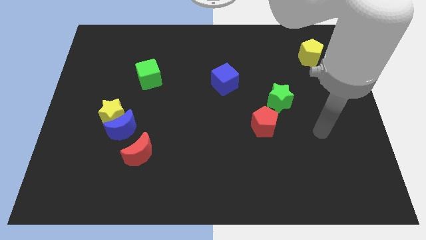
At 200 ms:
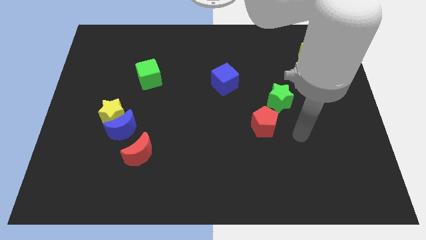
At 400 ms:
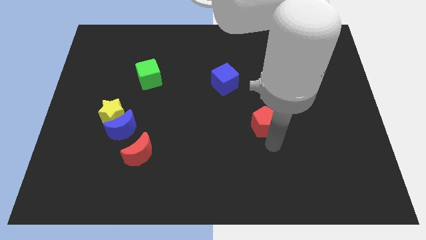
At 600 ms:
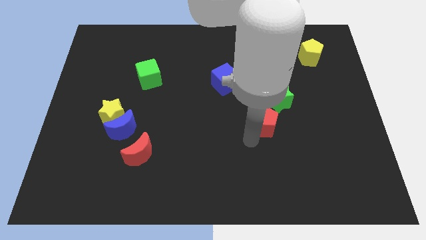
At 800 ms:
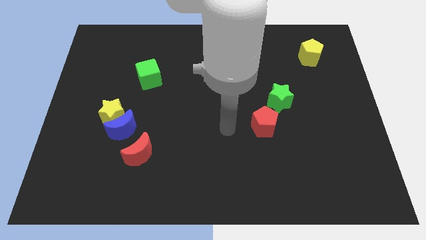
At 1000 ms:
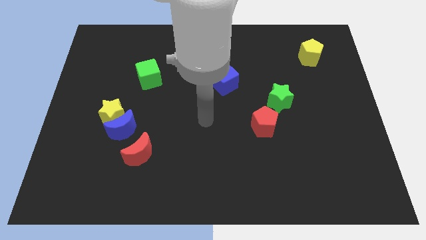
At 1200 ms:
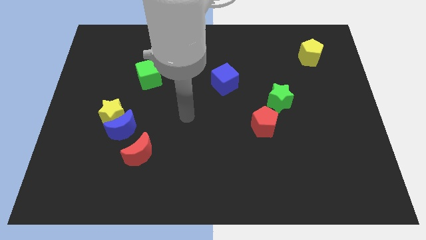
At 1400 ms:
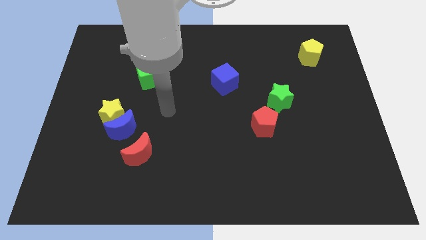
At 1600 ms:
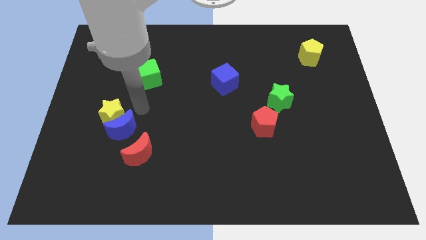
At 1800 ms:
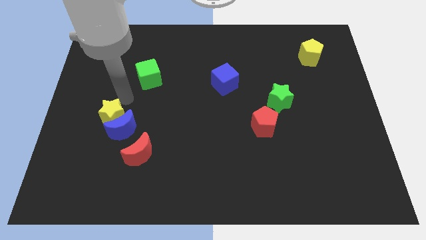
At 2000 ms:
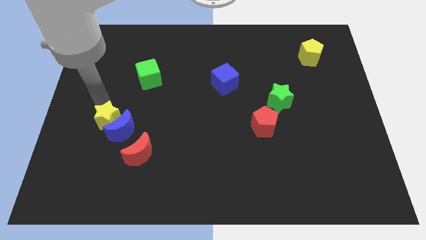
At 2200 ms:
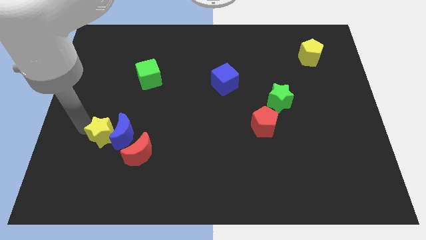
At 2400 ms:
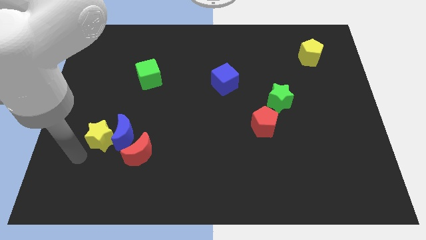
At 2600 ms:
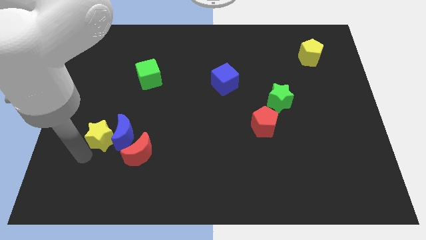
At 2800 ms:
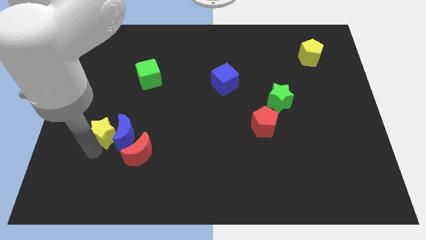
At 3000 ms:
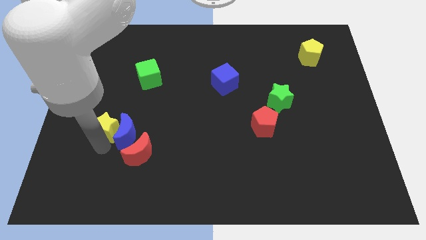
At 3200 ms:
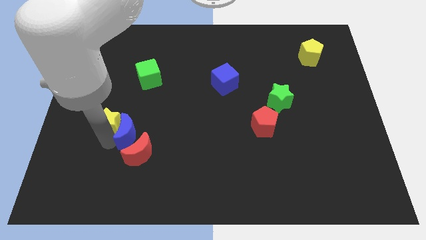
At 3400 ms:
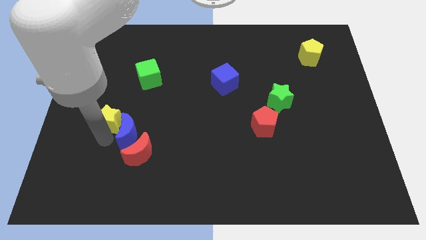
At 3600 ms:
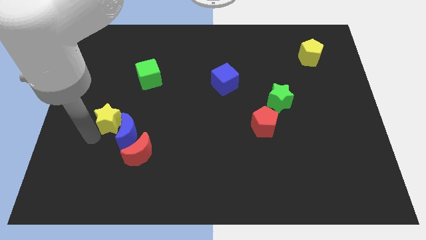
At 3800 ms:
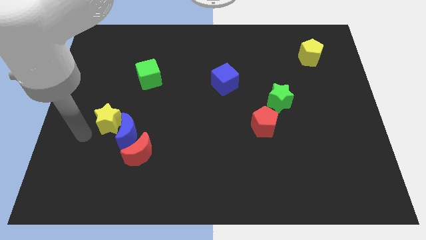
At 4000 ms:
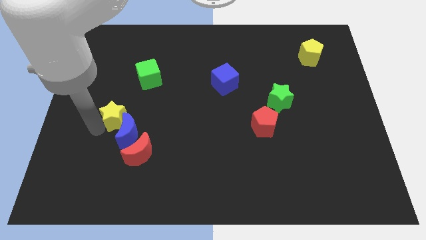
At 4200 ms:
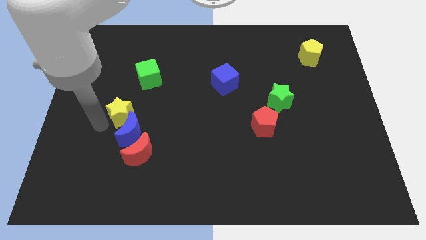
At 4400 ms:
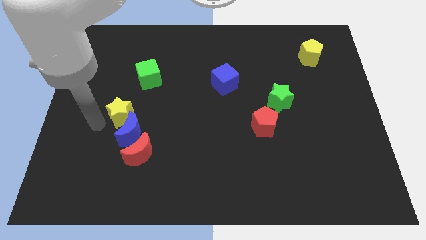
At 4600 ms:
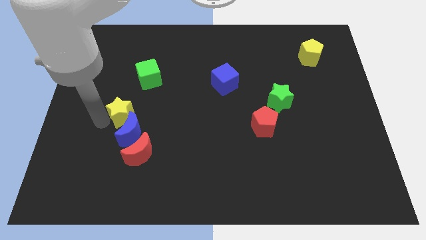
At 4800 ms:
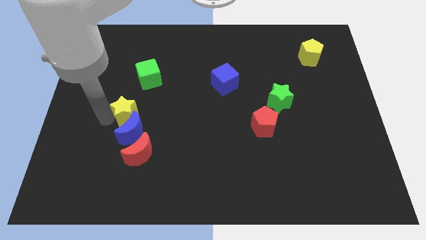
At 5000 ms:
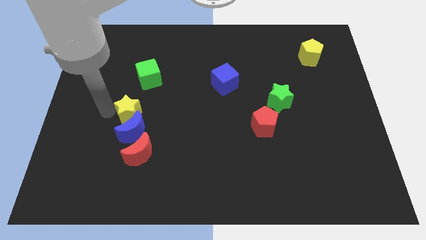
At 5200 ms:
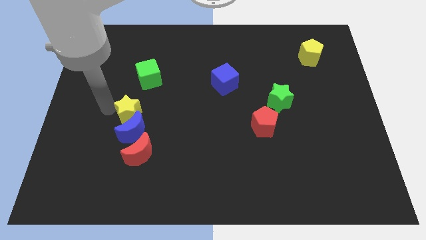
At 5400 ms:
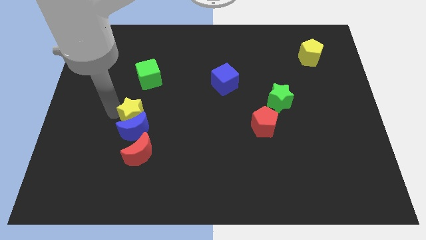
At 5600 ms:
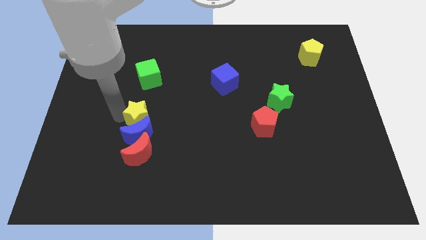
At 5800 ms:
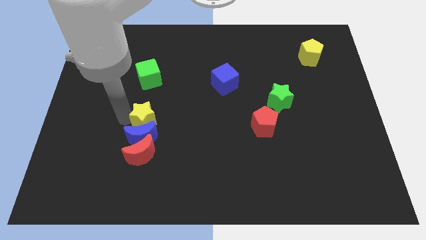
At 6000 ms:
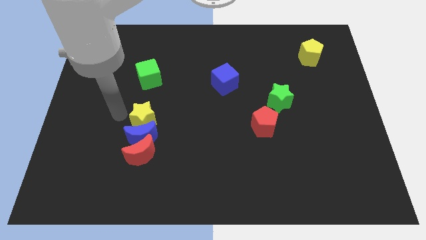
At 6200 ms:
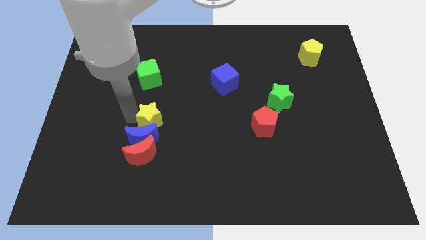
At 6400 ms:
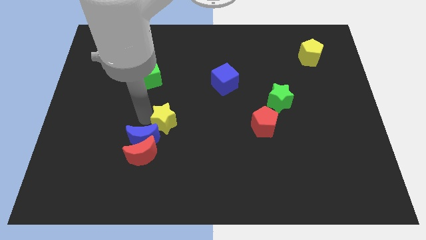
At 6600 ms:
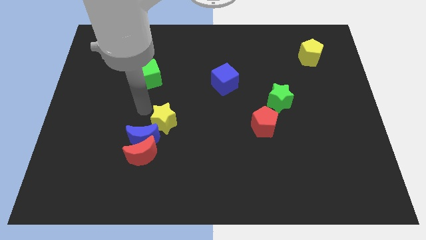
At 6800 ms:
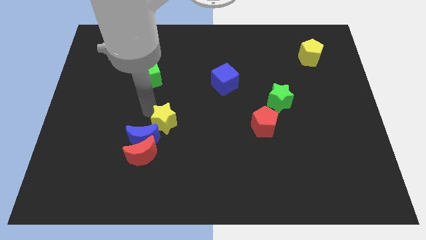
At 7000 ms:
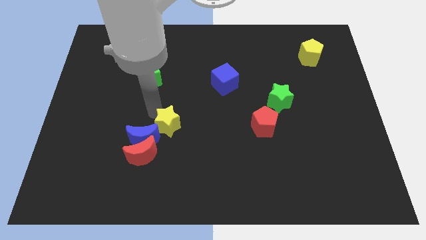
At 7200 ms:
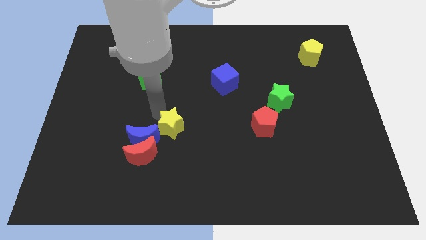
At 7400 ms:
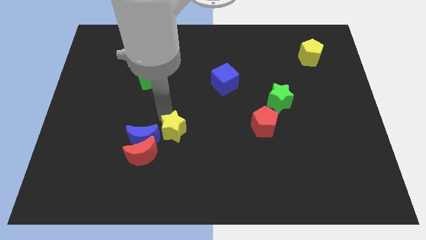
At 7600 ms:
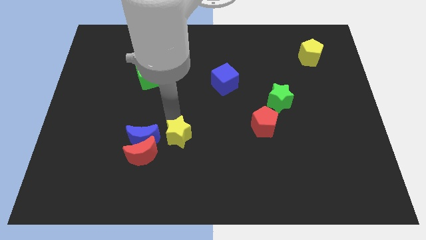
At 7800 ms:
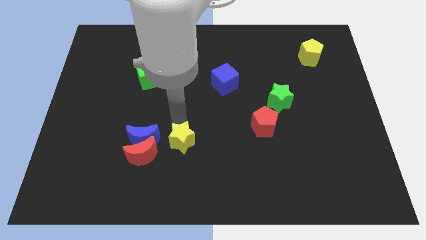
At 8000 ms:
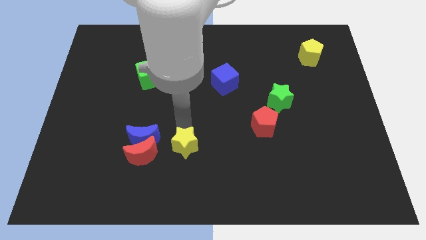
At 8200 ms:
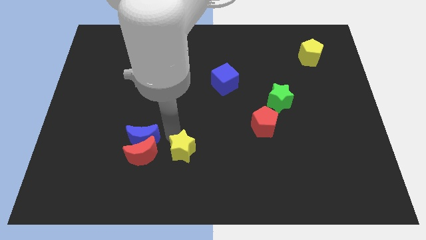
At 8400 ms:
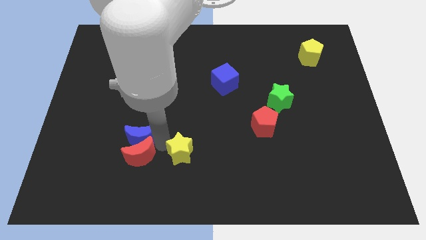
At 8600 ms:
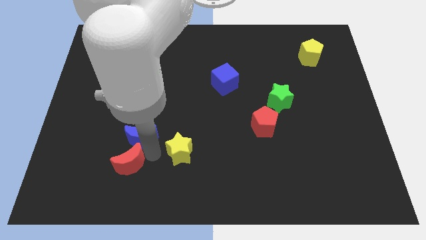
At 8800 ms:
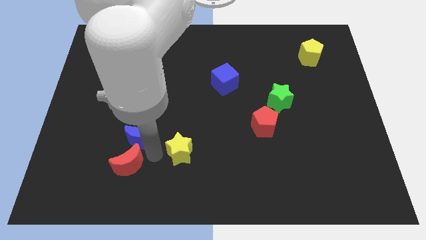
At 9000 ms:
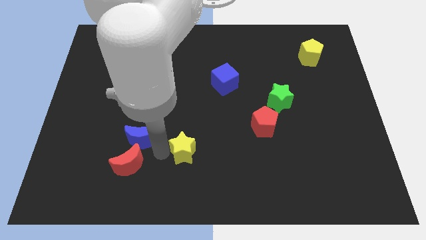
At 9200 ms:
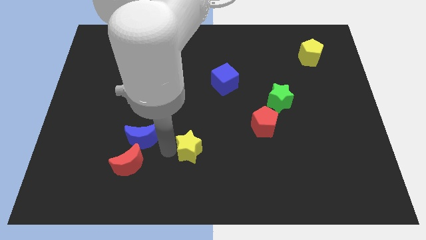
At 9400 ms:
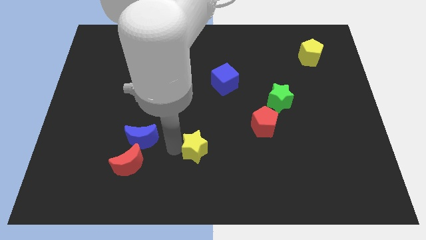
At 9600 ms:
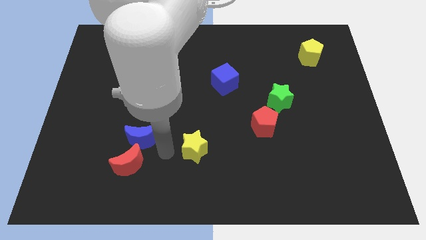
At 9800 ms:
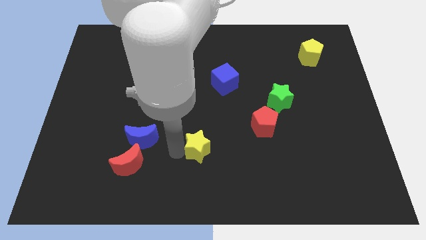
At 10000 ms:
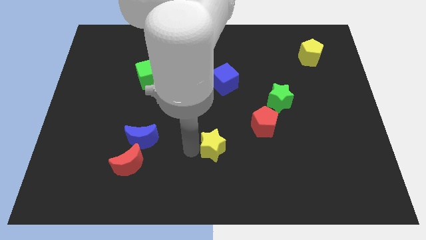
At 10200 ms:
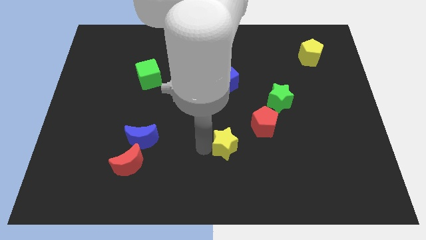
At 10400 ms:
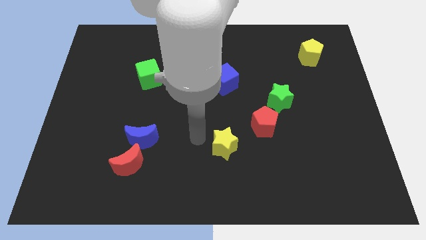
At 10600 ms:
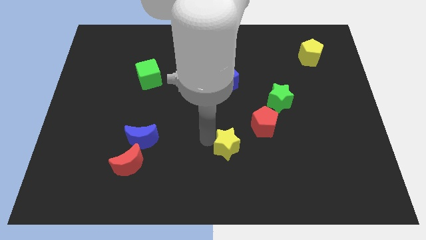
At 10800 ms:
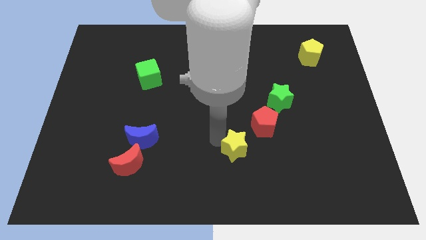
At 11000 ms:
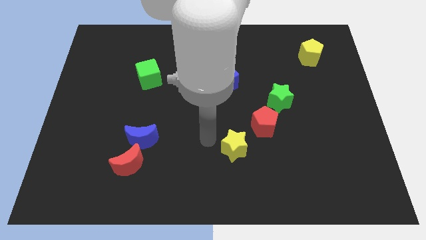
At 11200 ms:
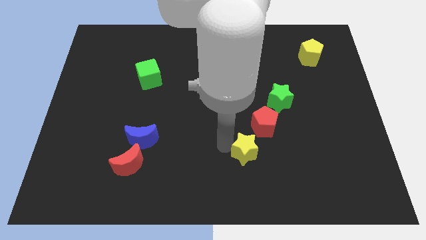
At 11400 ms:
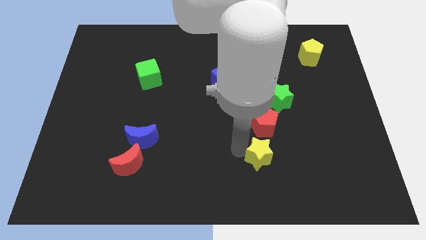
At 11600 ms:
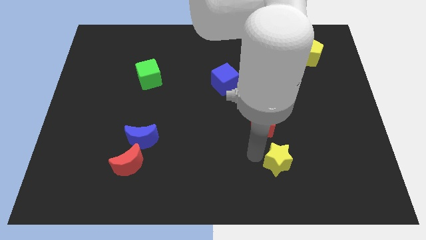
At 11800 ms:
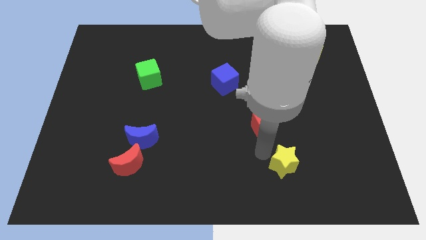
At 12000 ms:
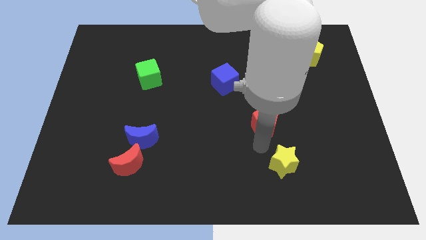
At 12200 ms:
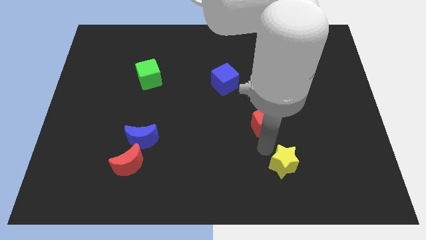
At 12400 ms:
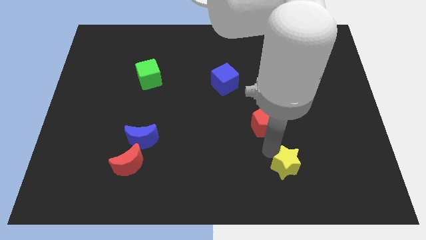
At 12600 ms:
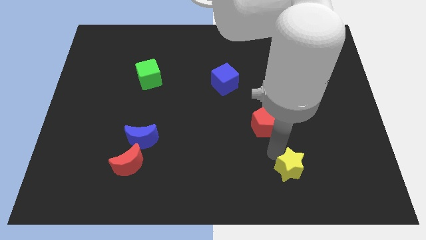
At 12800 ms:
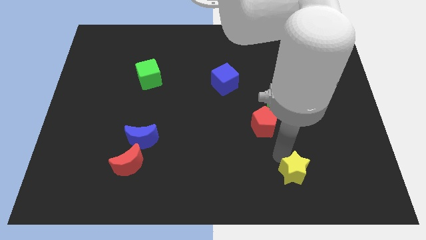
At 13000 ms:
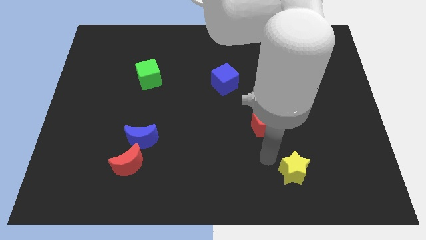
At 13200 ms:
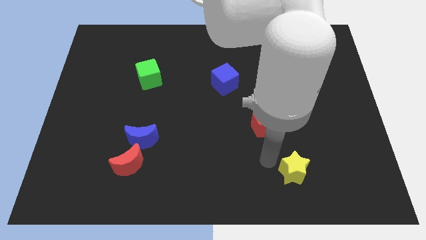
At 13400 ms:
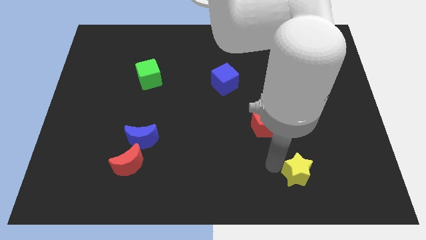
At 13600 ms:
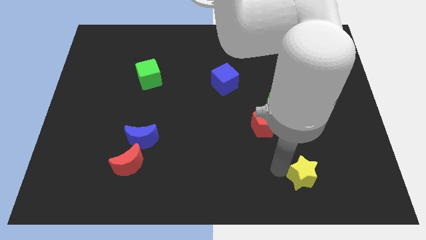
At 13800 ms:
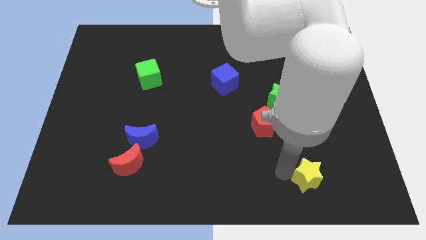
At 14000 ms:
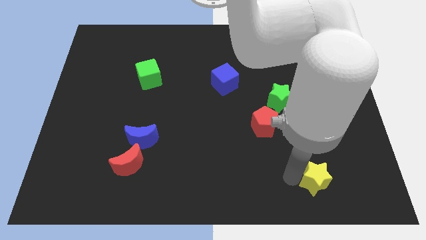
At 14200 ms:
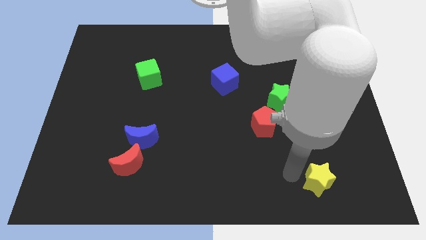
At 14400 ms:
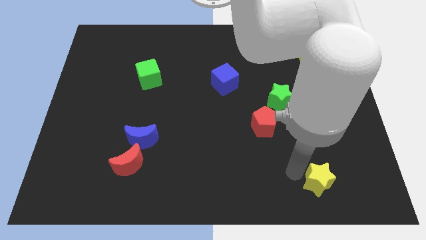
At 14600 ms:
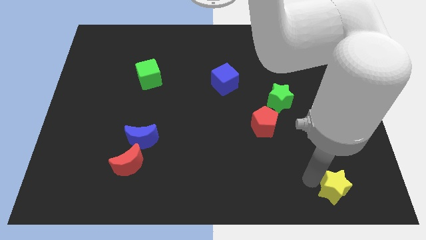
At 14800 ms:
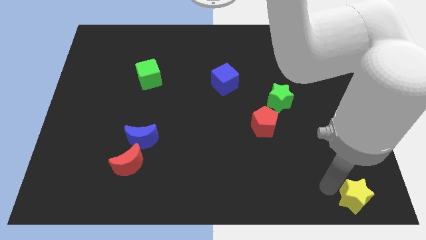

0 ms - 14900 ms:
push the yellow star to the bottom right corner
